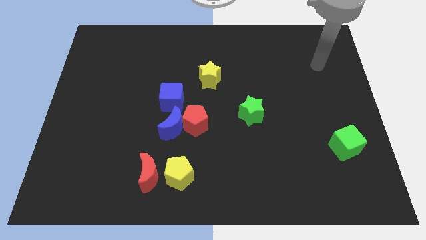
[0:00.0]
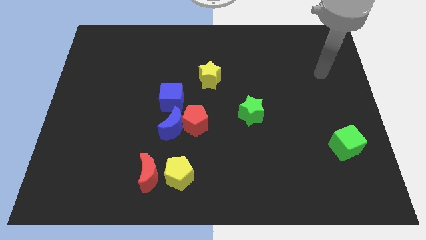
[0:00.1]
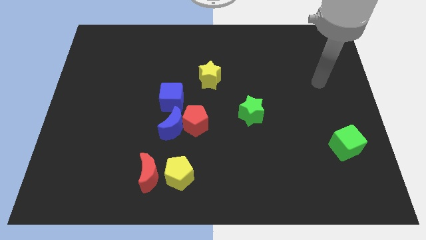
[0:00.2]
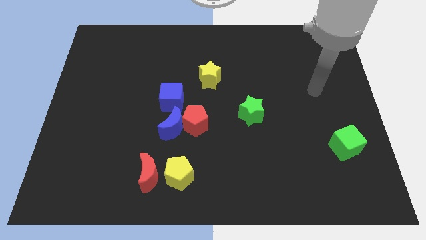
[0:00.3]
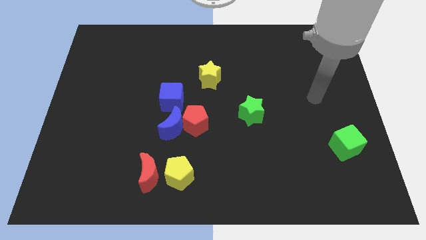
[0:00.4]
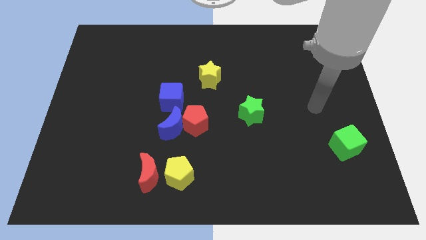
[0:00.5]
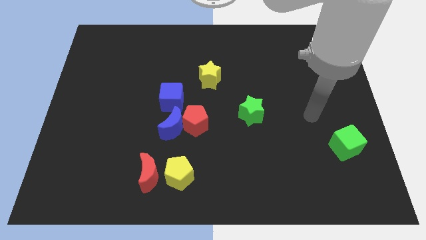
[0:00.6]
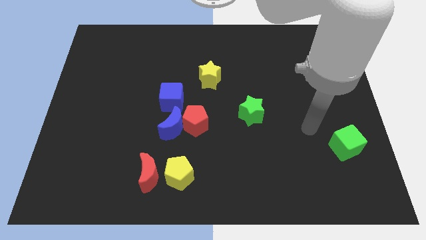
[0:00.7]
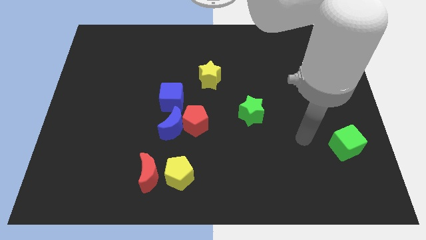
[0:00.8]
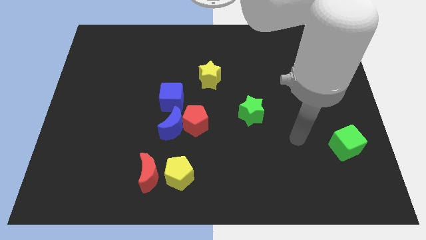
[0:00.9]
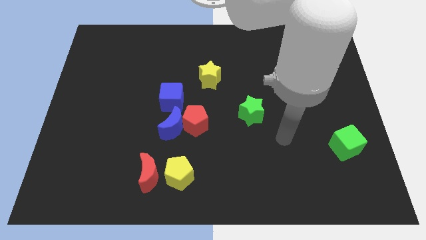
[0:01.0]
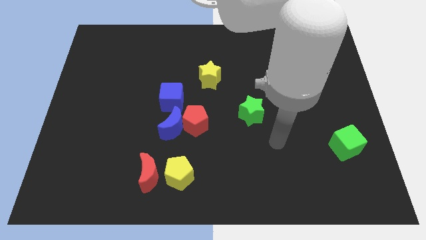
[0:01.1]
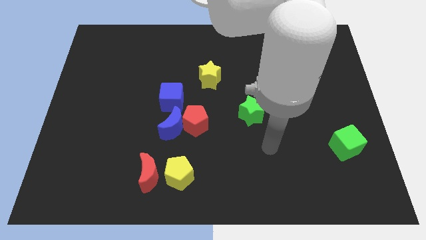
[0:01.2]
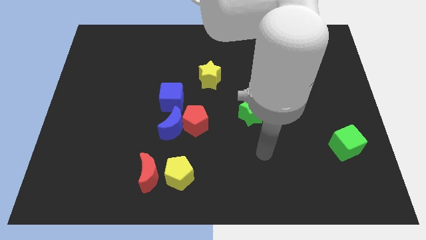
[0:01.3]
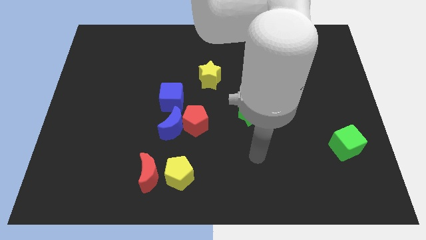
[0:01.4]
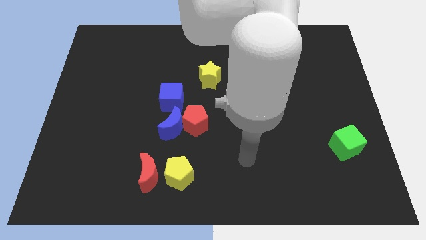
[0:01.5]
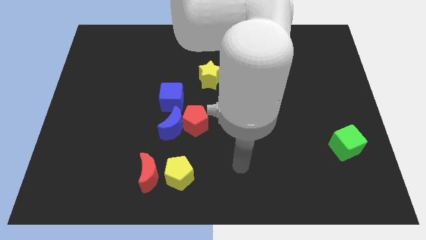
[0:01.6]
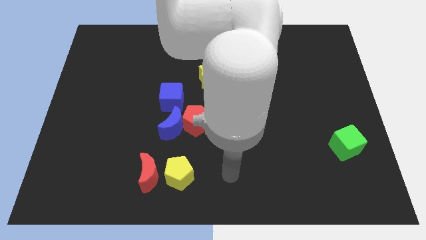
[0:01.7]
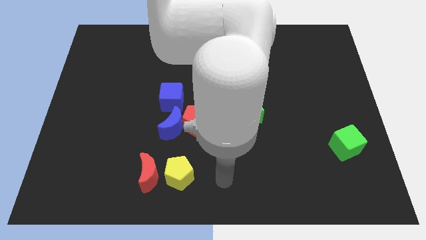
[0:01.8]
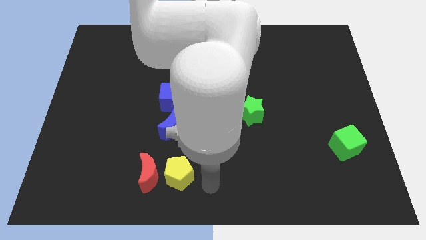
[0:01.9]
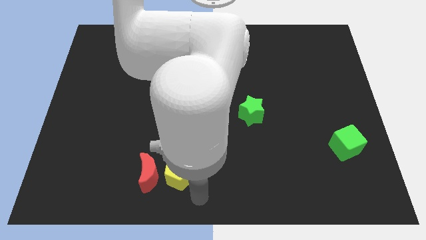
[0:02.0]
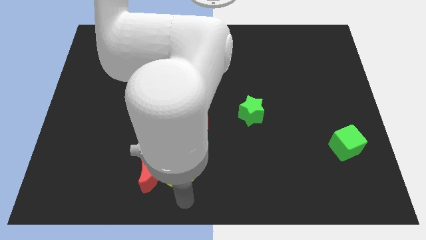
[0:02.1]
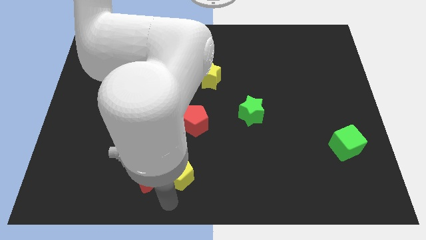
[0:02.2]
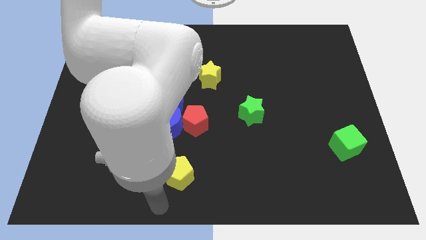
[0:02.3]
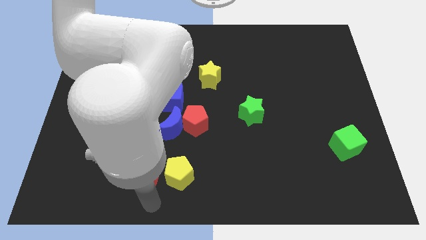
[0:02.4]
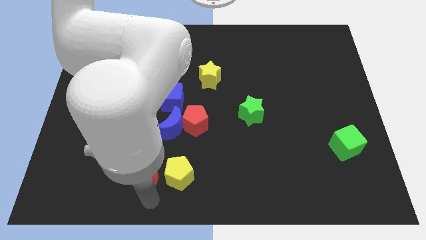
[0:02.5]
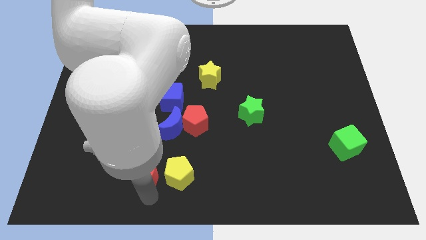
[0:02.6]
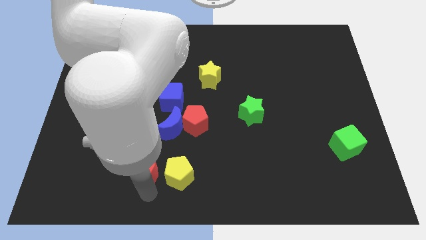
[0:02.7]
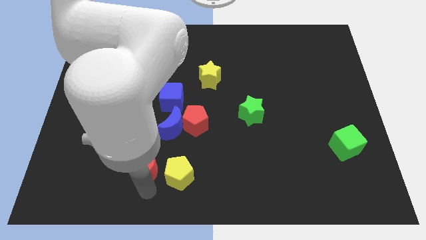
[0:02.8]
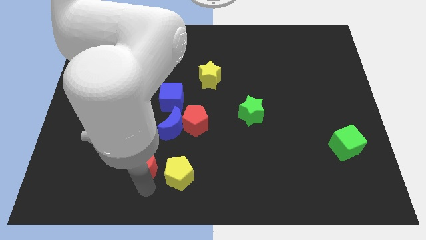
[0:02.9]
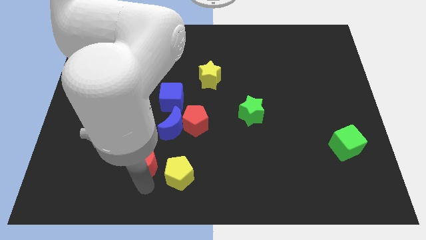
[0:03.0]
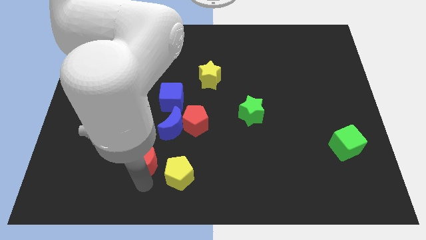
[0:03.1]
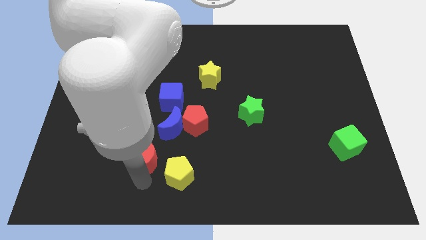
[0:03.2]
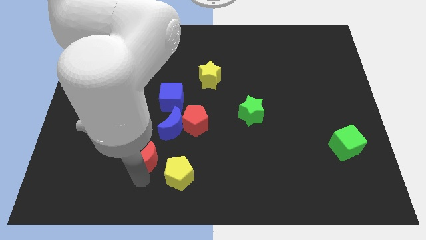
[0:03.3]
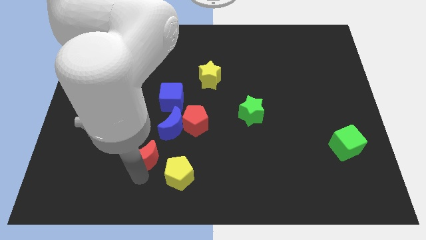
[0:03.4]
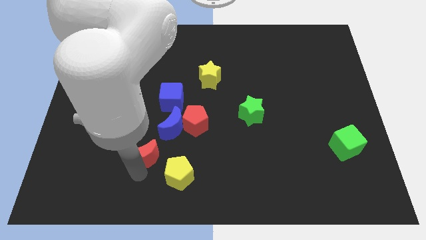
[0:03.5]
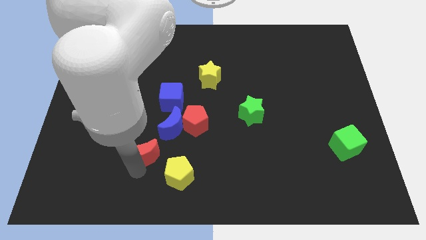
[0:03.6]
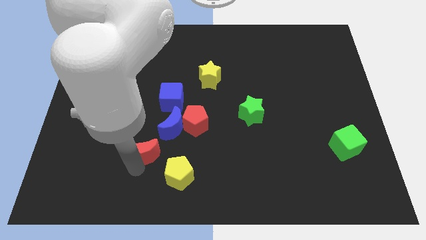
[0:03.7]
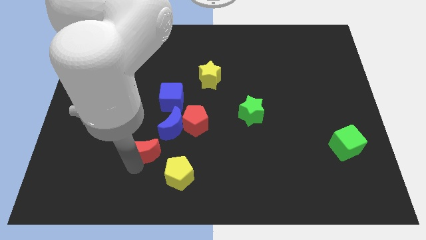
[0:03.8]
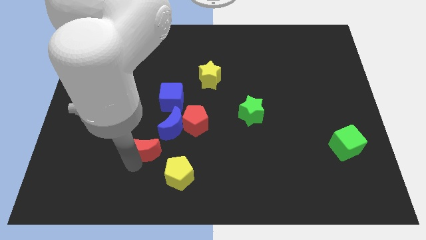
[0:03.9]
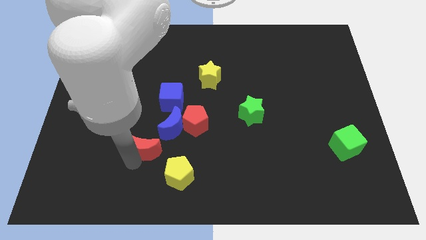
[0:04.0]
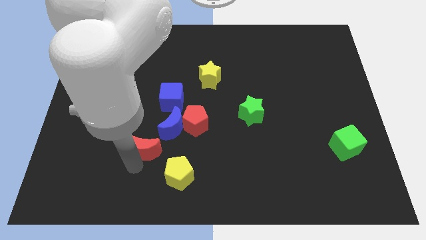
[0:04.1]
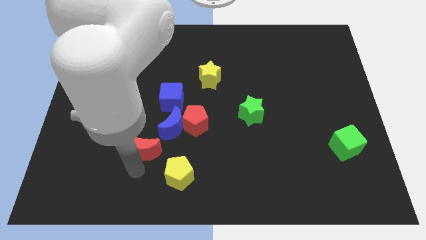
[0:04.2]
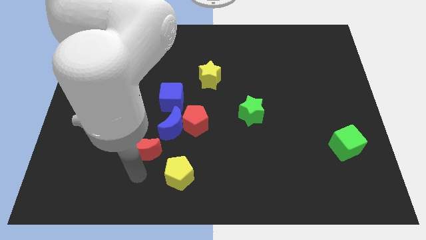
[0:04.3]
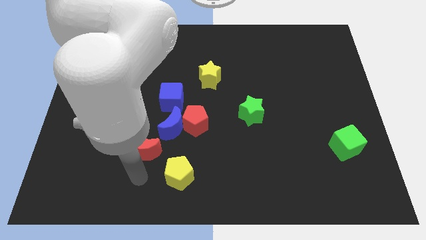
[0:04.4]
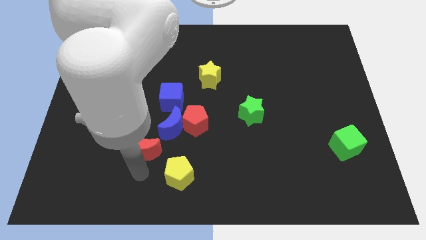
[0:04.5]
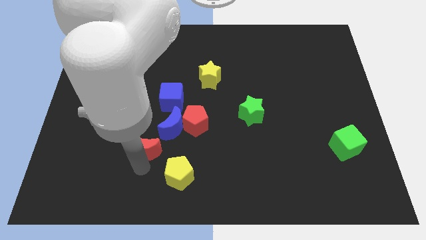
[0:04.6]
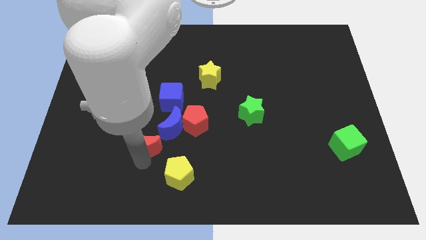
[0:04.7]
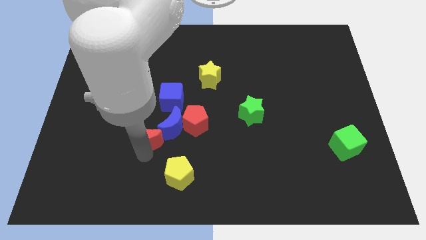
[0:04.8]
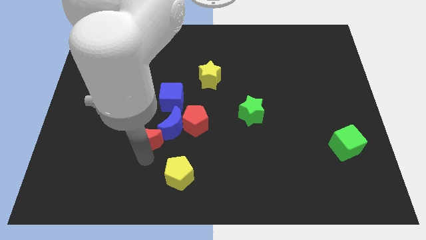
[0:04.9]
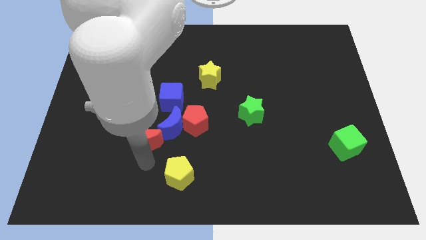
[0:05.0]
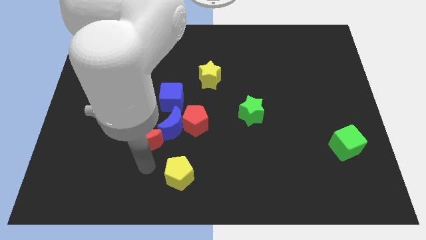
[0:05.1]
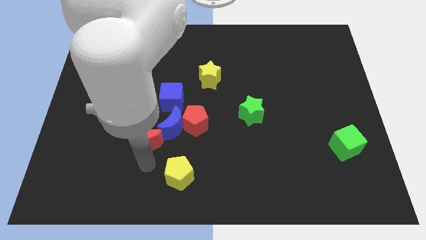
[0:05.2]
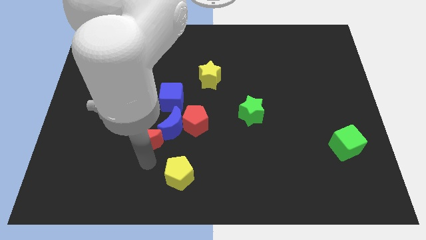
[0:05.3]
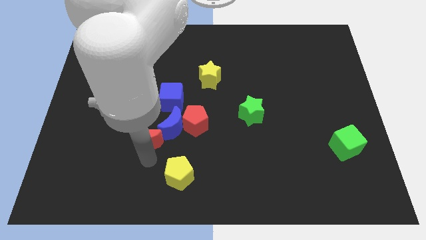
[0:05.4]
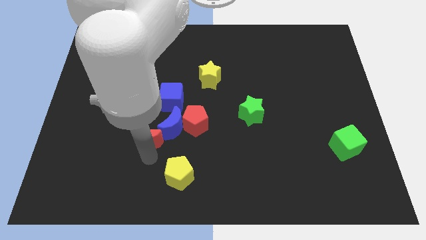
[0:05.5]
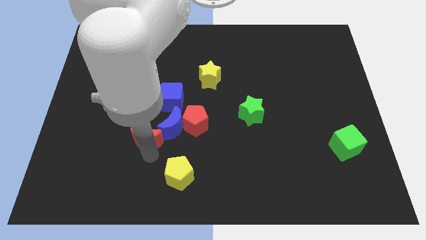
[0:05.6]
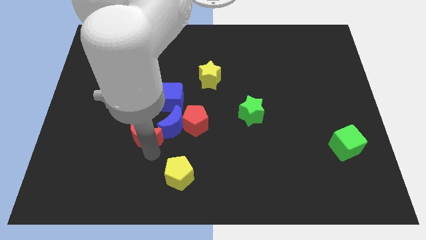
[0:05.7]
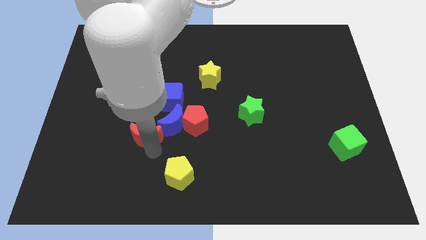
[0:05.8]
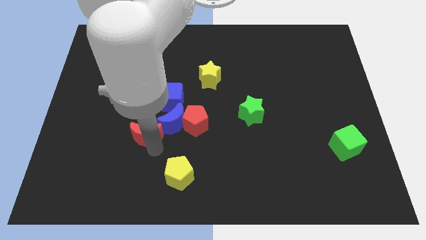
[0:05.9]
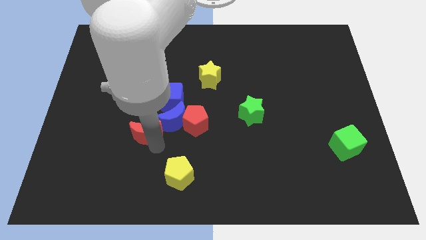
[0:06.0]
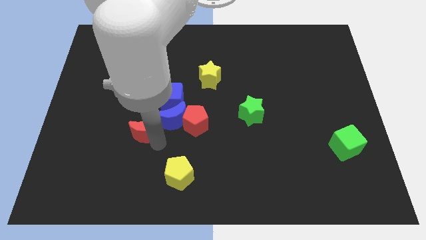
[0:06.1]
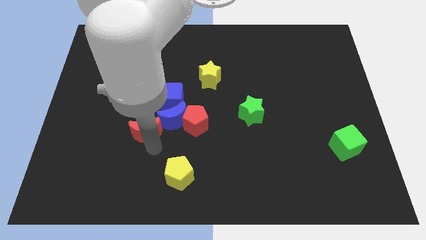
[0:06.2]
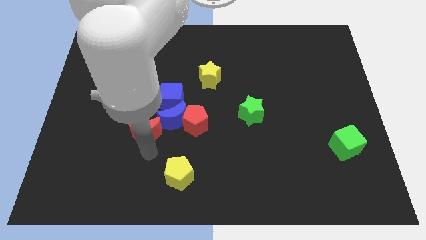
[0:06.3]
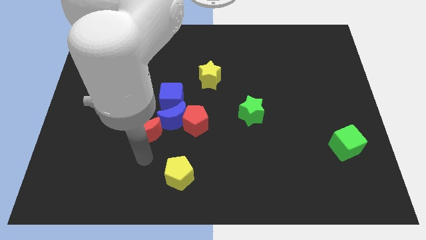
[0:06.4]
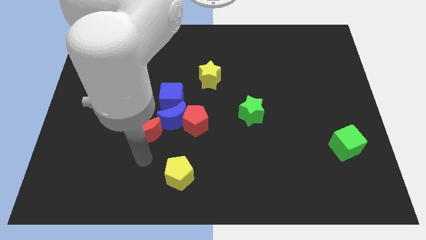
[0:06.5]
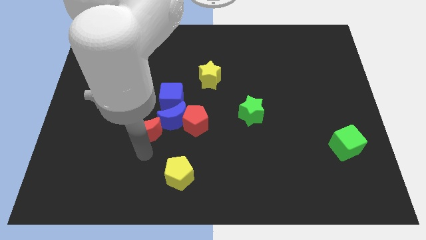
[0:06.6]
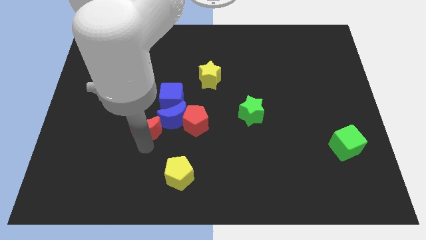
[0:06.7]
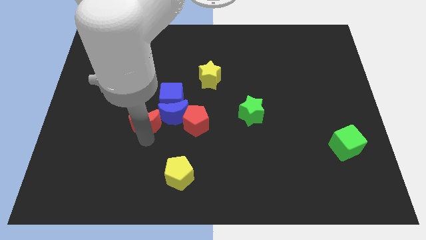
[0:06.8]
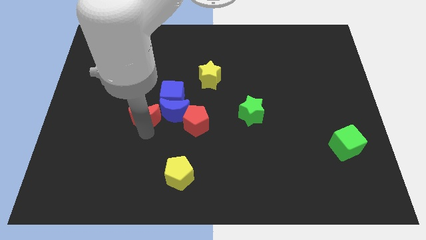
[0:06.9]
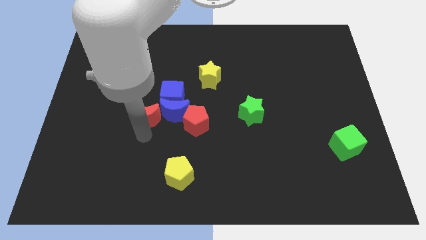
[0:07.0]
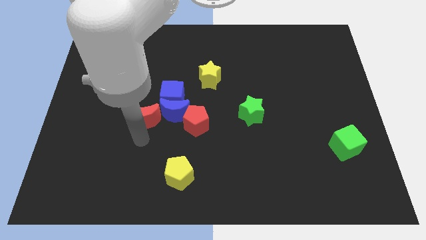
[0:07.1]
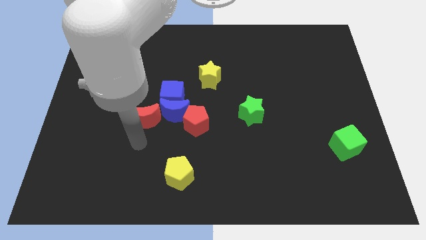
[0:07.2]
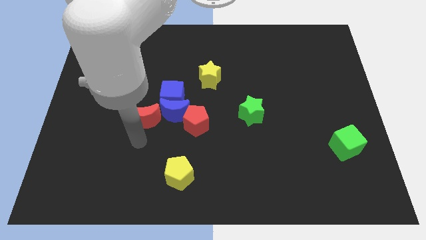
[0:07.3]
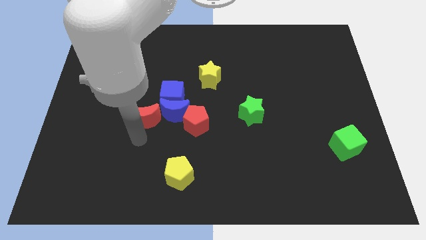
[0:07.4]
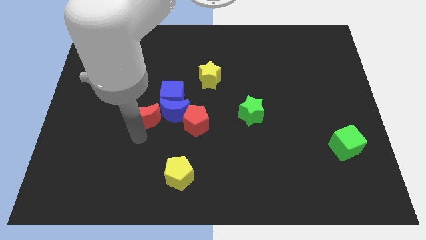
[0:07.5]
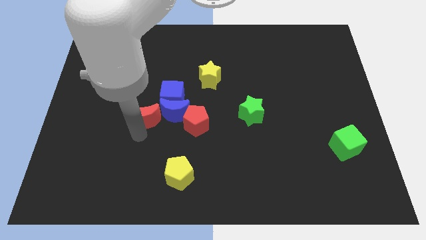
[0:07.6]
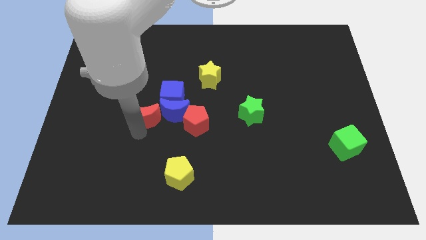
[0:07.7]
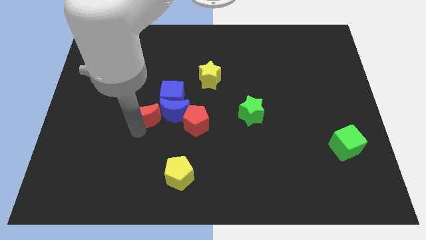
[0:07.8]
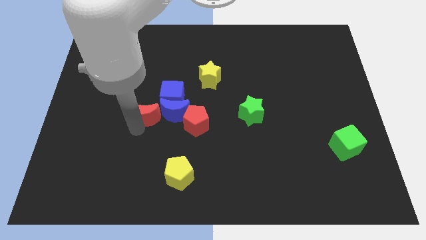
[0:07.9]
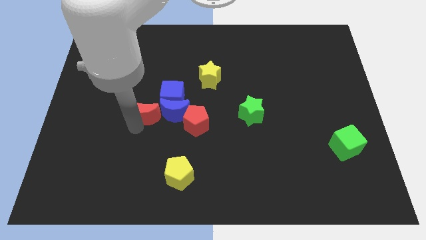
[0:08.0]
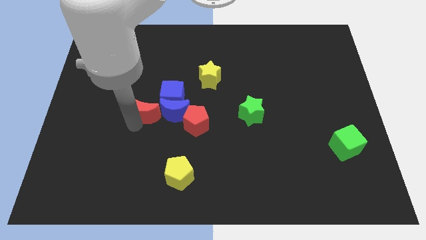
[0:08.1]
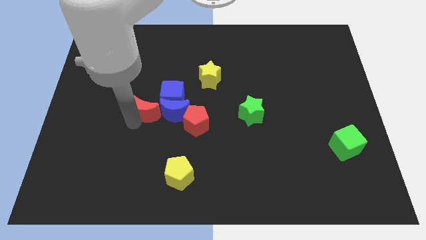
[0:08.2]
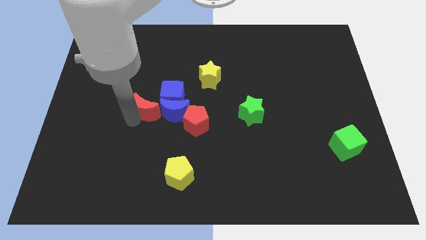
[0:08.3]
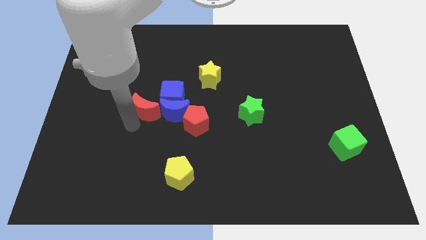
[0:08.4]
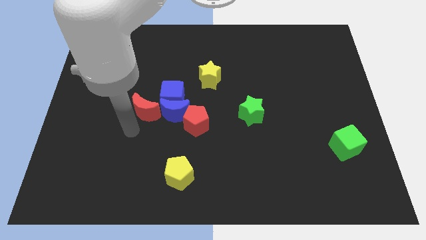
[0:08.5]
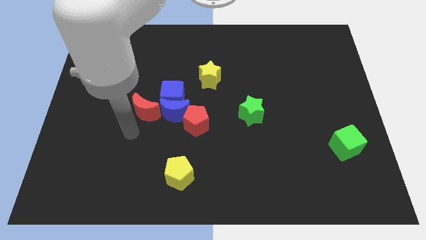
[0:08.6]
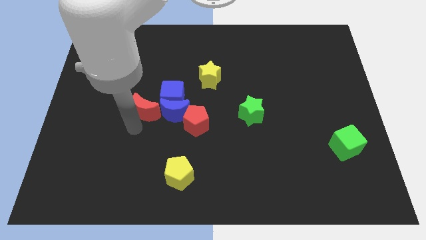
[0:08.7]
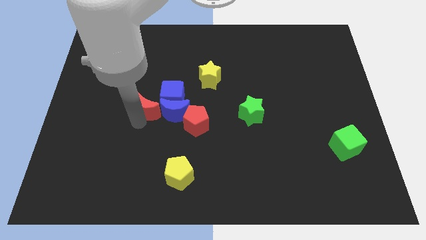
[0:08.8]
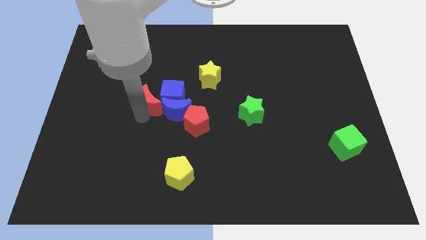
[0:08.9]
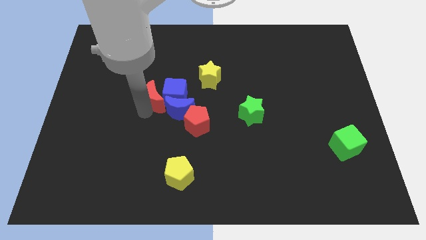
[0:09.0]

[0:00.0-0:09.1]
slide the red moon up
